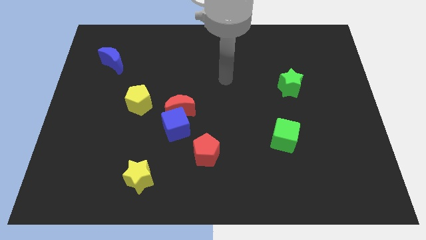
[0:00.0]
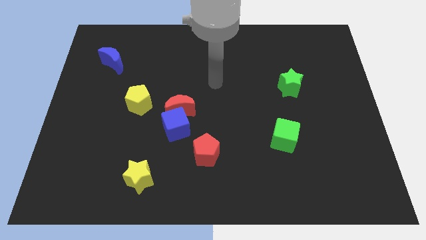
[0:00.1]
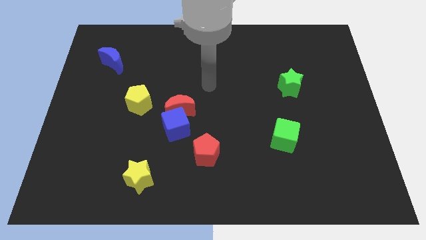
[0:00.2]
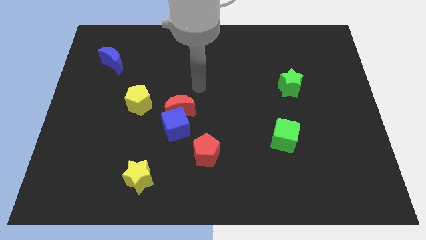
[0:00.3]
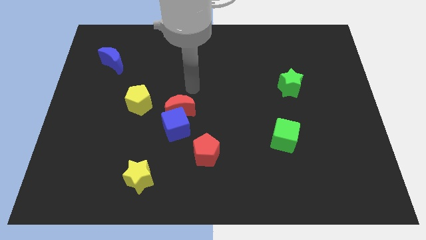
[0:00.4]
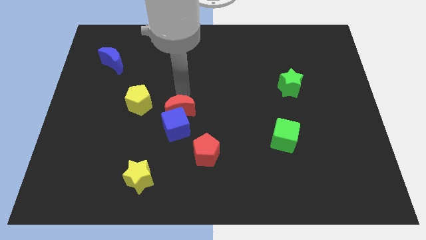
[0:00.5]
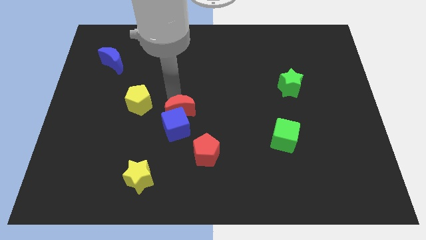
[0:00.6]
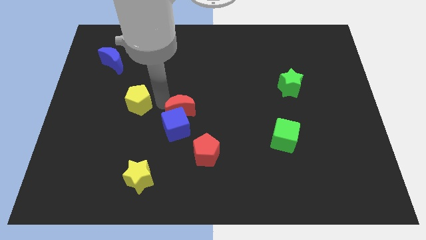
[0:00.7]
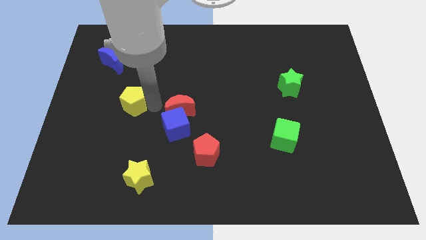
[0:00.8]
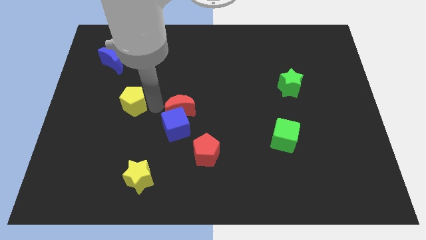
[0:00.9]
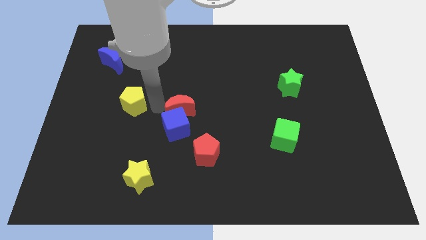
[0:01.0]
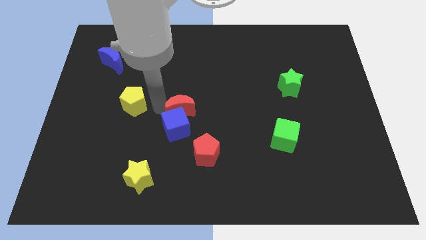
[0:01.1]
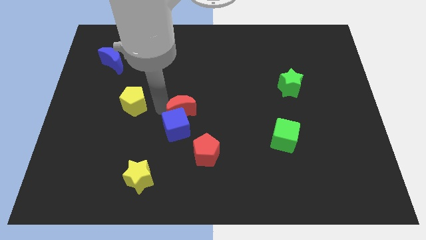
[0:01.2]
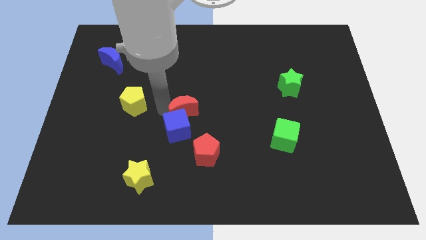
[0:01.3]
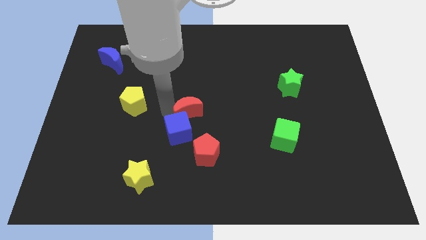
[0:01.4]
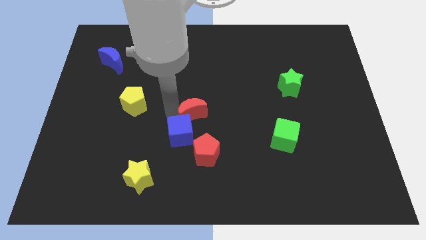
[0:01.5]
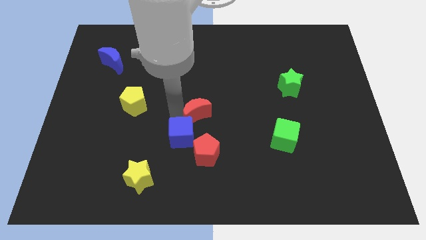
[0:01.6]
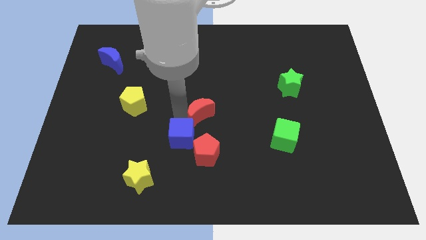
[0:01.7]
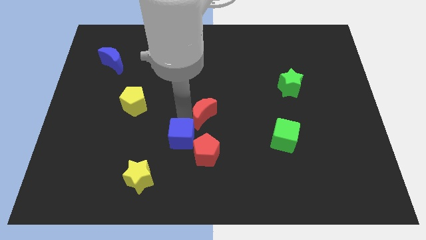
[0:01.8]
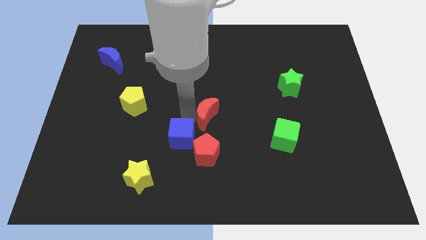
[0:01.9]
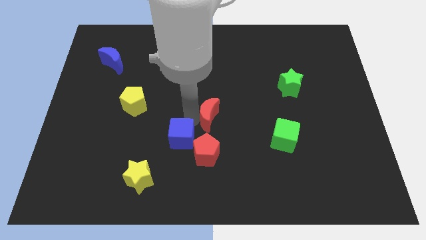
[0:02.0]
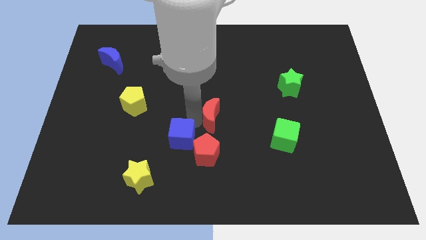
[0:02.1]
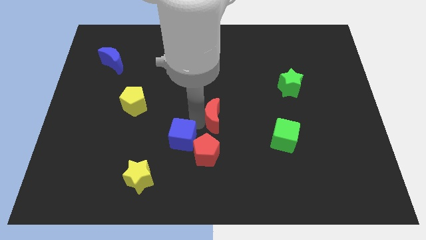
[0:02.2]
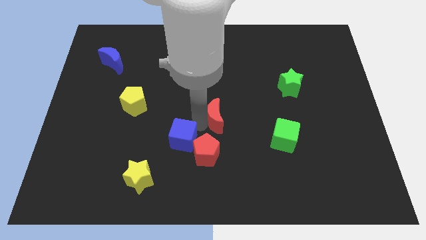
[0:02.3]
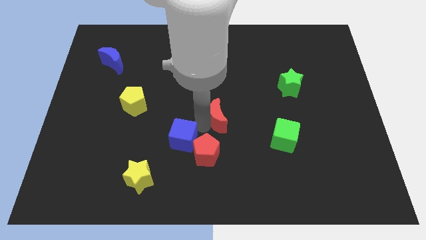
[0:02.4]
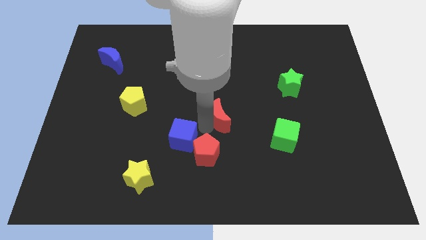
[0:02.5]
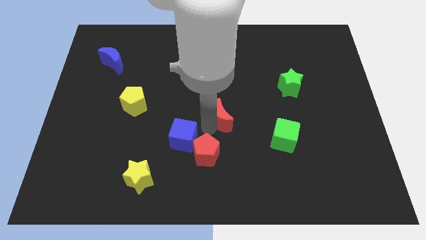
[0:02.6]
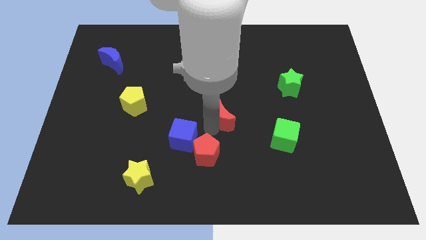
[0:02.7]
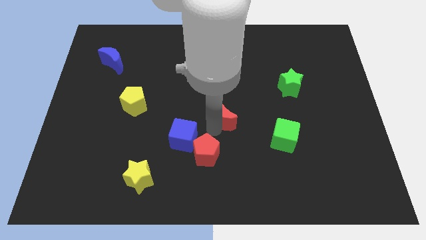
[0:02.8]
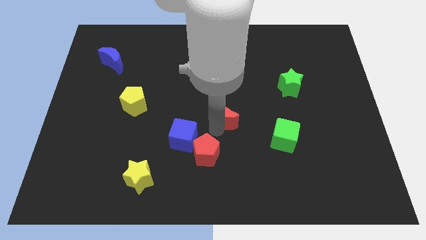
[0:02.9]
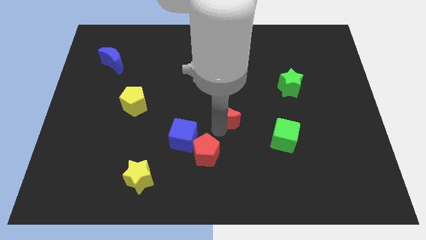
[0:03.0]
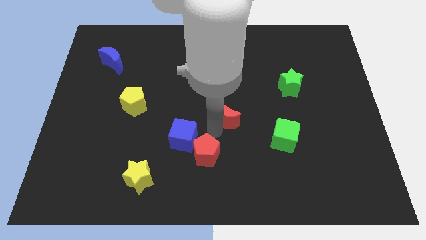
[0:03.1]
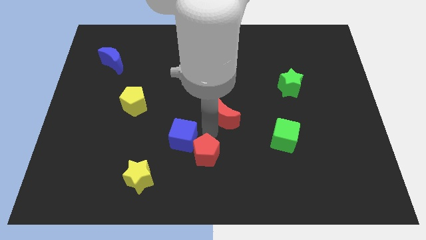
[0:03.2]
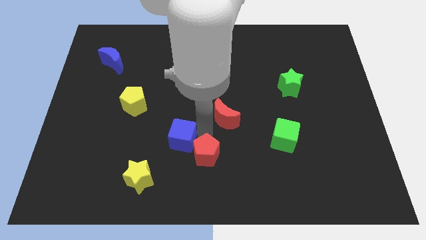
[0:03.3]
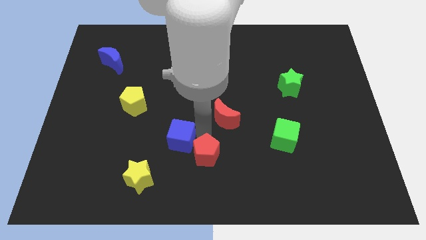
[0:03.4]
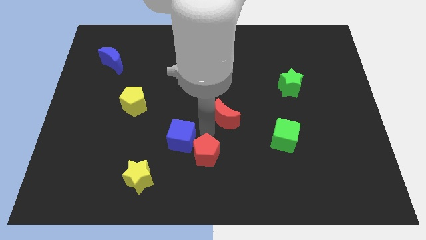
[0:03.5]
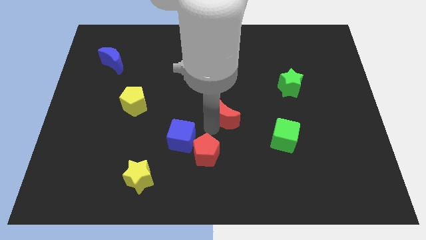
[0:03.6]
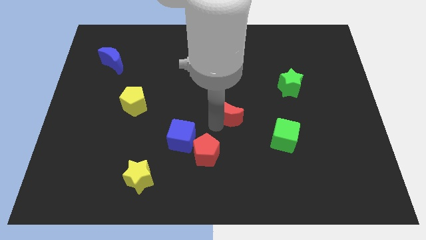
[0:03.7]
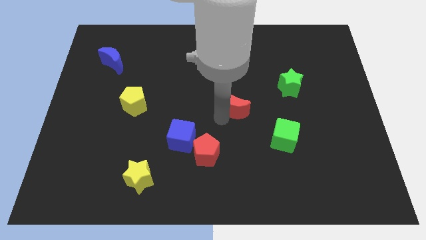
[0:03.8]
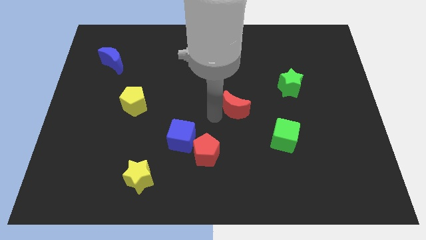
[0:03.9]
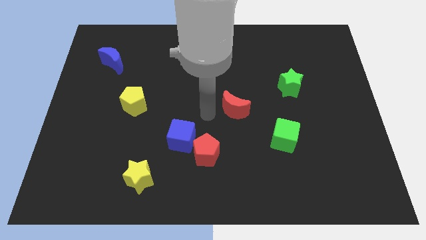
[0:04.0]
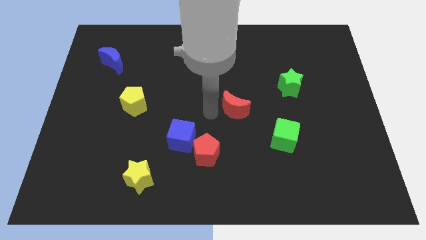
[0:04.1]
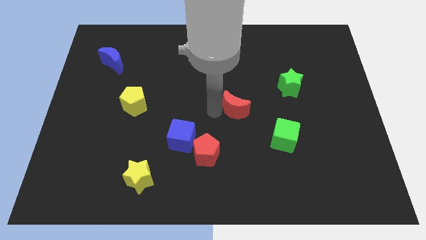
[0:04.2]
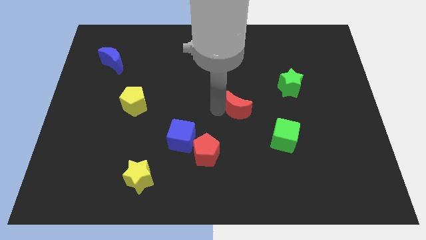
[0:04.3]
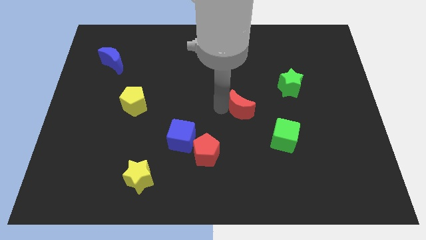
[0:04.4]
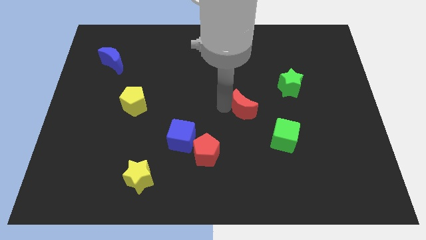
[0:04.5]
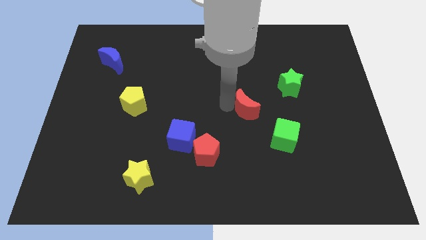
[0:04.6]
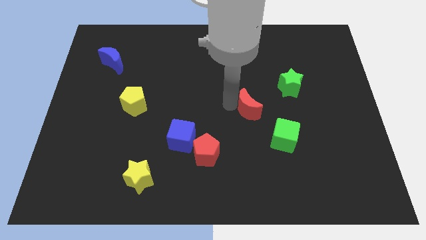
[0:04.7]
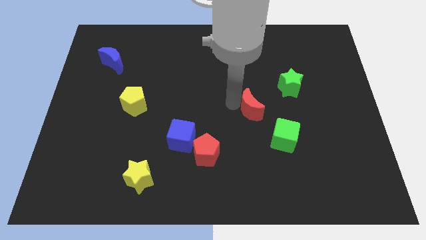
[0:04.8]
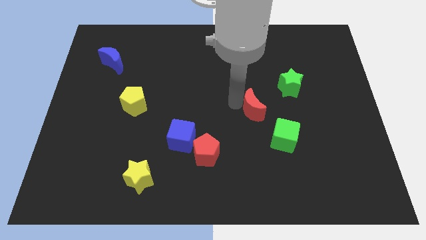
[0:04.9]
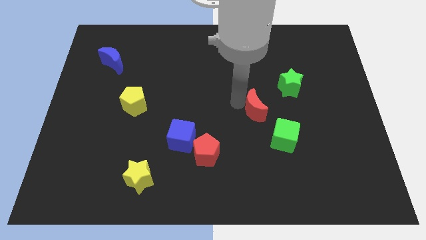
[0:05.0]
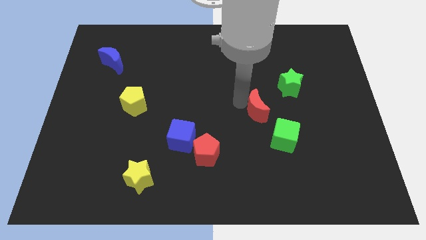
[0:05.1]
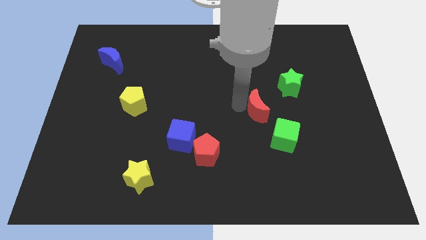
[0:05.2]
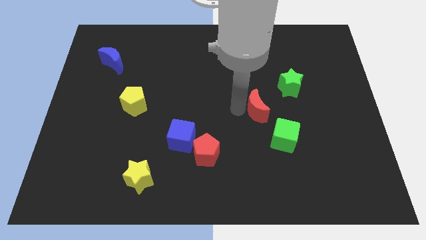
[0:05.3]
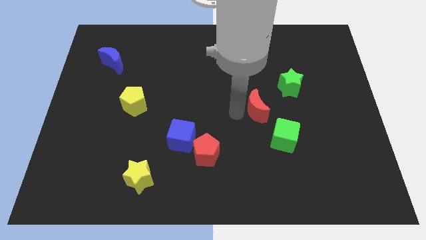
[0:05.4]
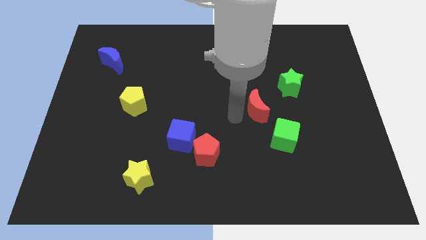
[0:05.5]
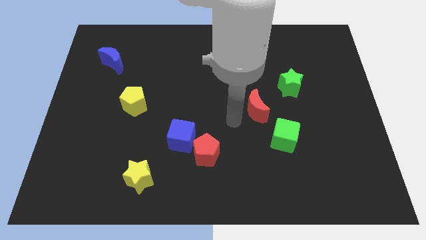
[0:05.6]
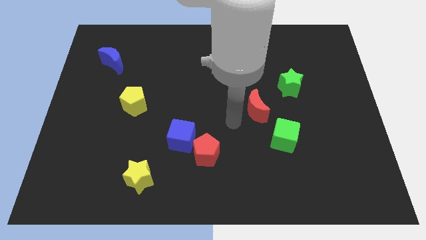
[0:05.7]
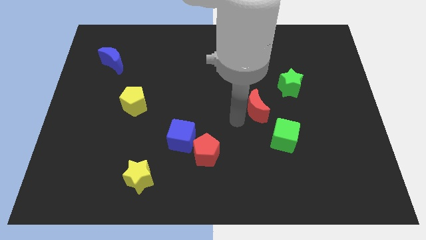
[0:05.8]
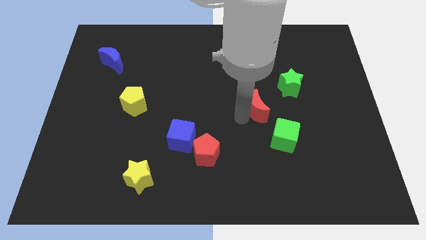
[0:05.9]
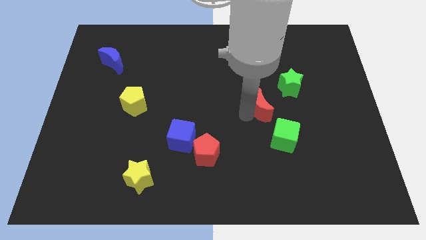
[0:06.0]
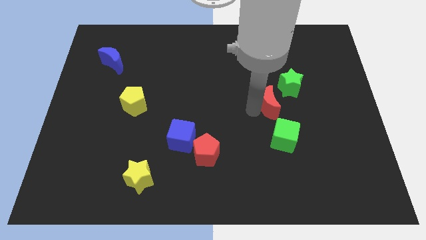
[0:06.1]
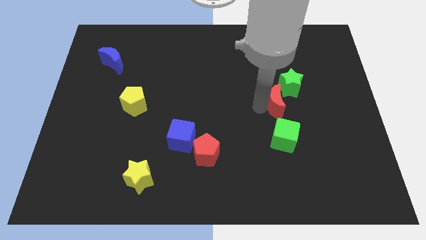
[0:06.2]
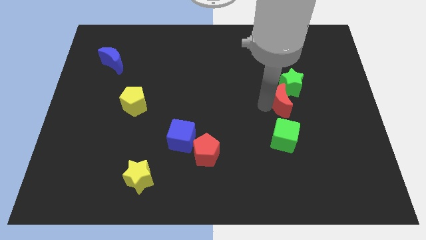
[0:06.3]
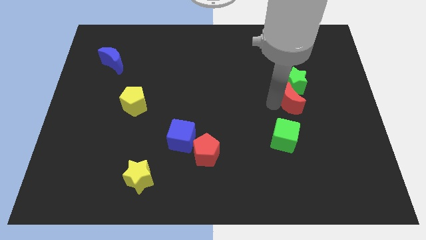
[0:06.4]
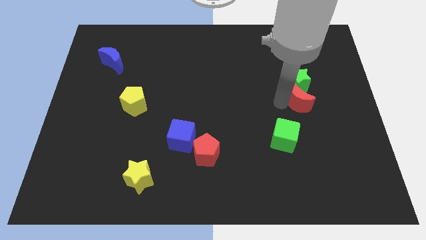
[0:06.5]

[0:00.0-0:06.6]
put the red moon to the bottom right side of the green star

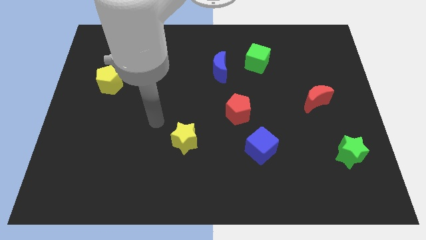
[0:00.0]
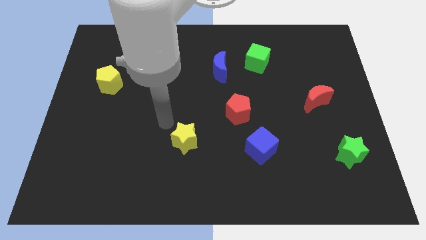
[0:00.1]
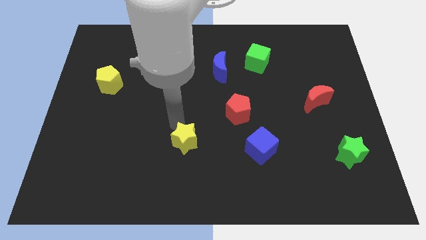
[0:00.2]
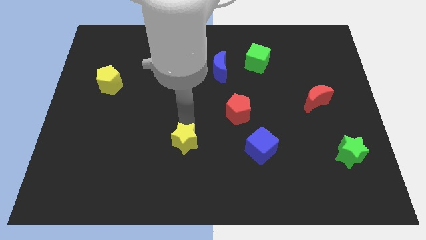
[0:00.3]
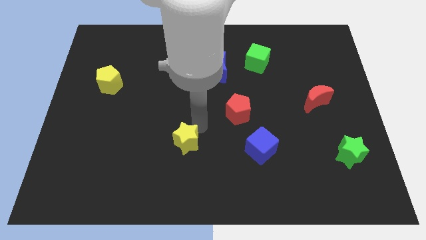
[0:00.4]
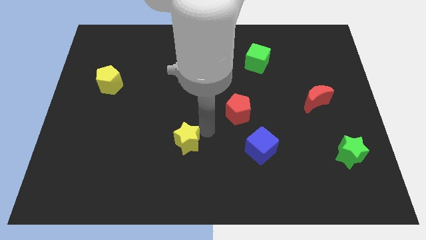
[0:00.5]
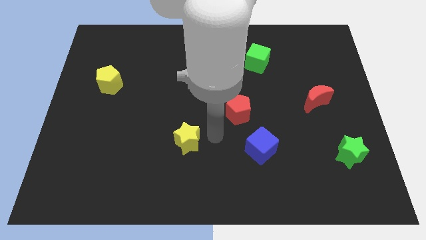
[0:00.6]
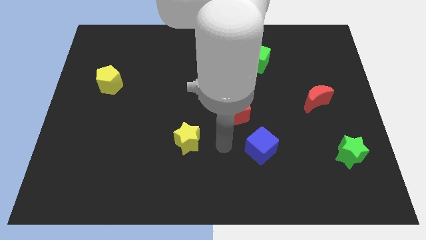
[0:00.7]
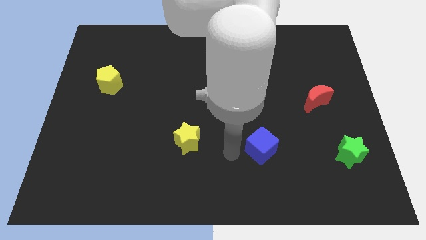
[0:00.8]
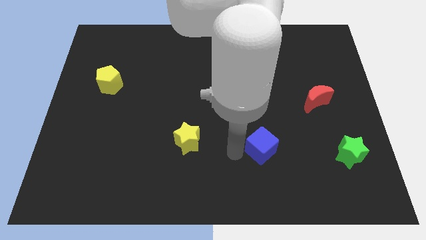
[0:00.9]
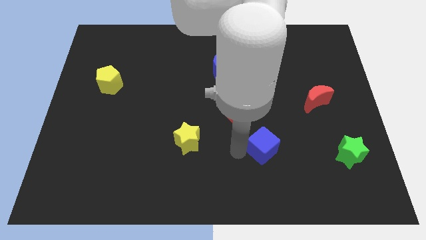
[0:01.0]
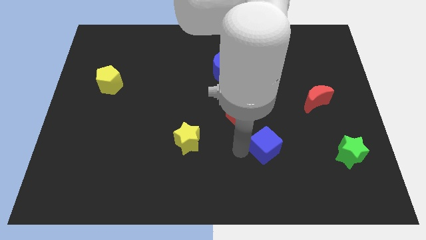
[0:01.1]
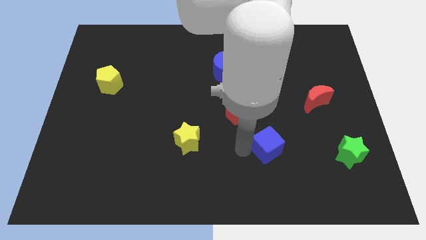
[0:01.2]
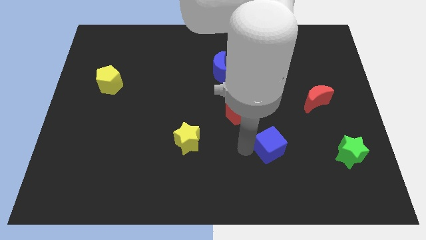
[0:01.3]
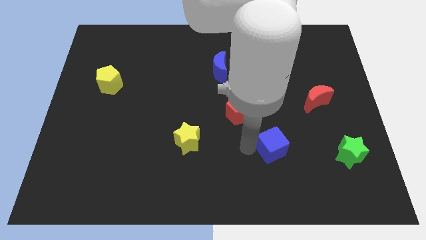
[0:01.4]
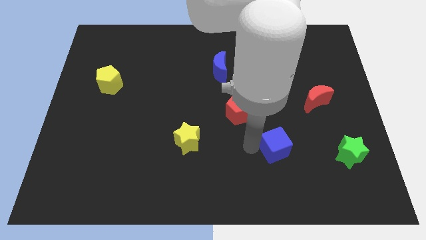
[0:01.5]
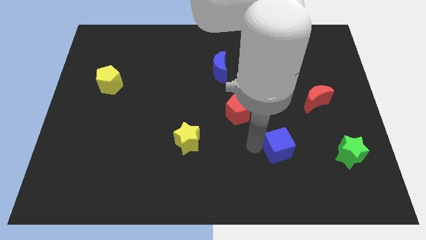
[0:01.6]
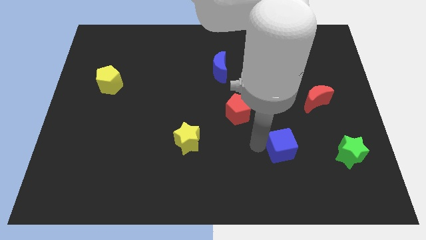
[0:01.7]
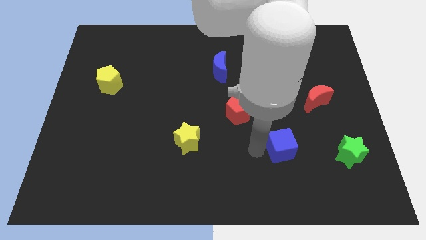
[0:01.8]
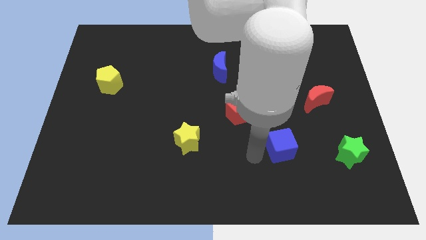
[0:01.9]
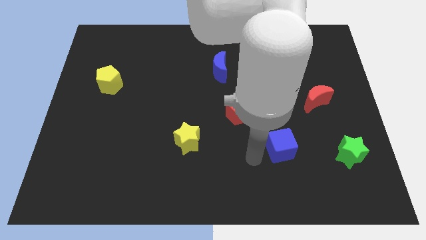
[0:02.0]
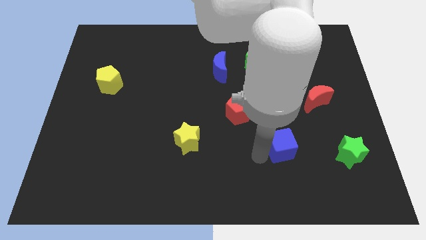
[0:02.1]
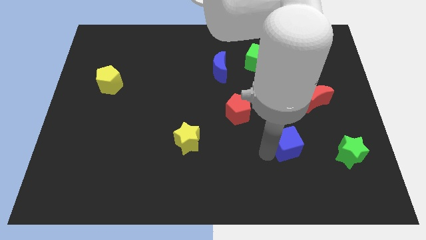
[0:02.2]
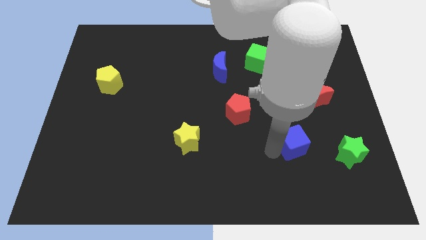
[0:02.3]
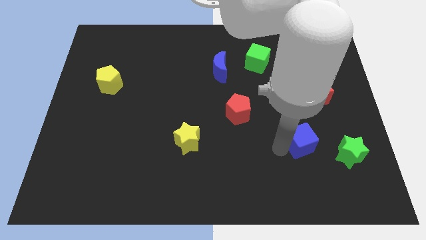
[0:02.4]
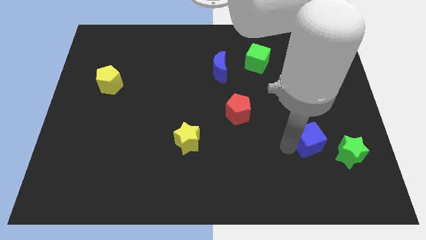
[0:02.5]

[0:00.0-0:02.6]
move the blue cube diagonally up and to the left of the green star
